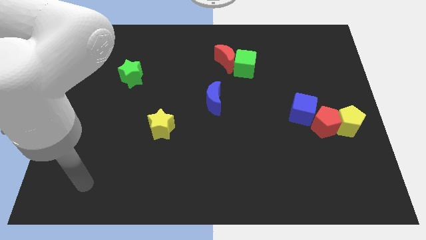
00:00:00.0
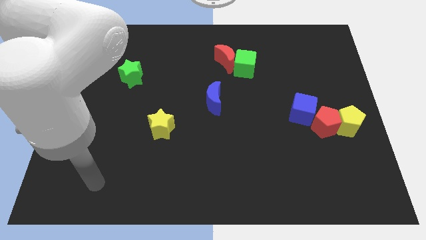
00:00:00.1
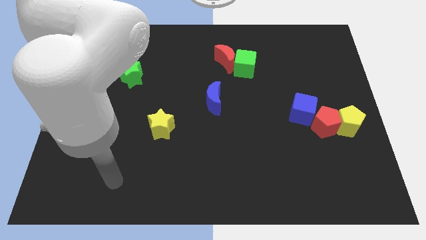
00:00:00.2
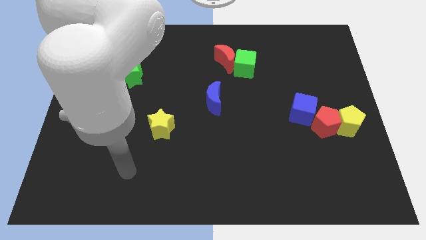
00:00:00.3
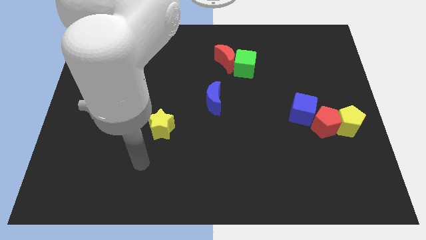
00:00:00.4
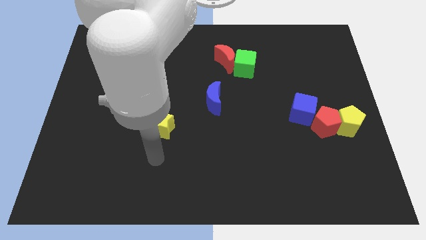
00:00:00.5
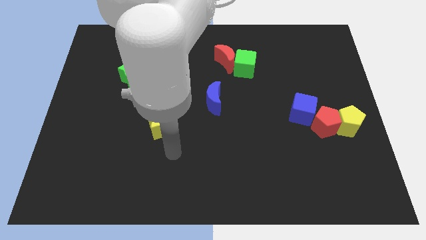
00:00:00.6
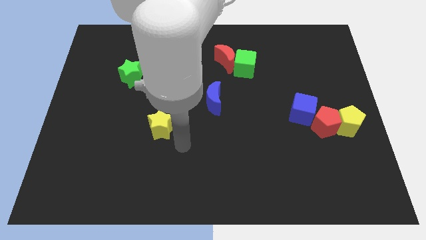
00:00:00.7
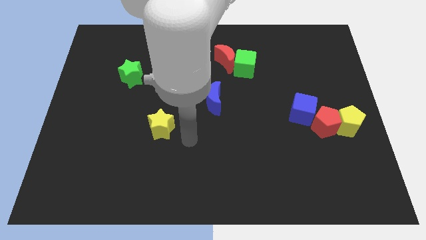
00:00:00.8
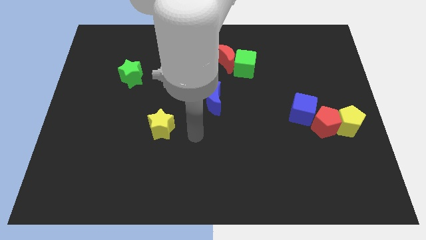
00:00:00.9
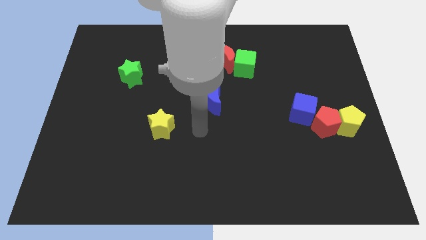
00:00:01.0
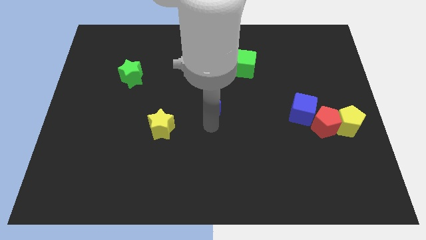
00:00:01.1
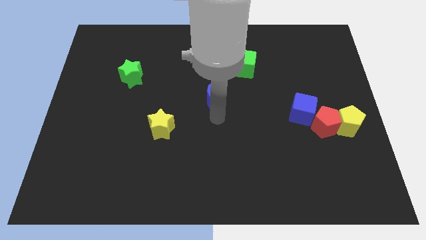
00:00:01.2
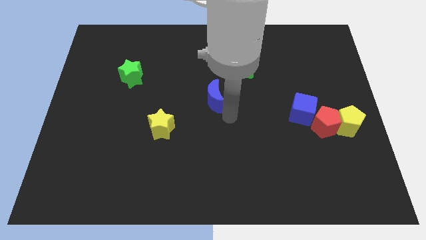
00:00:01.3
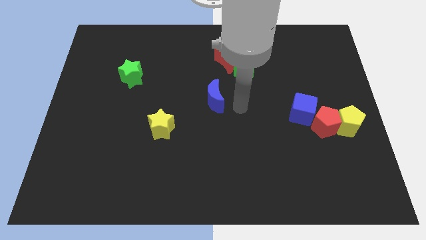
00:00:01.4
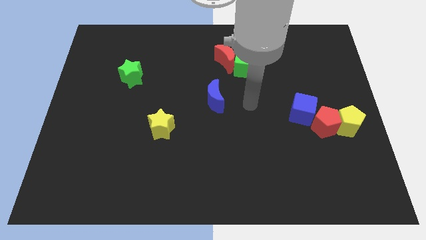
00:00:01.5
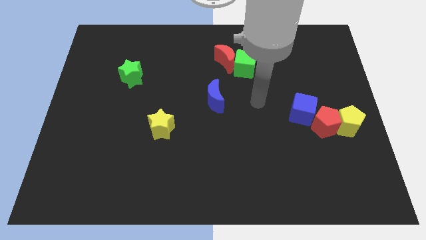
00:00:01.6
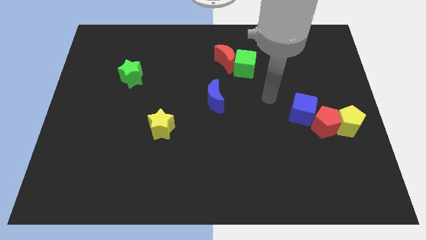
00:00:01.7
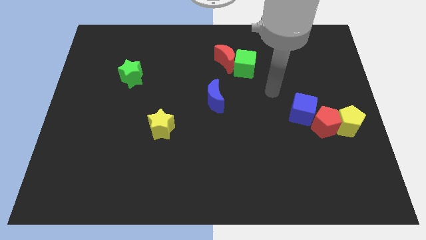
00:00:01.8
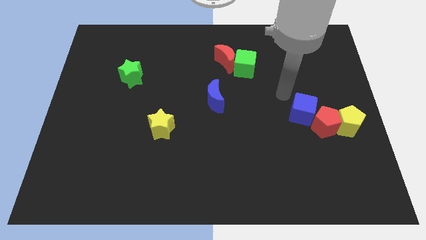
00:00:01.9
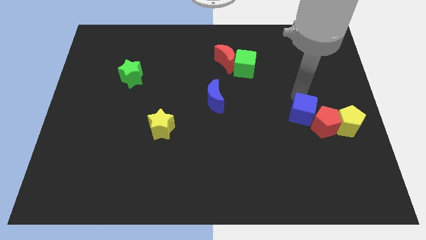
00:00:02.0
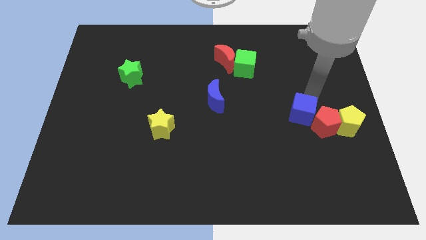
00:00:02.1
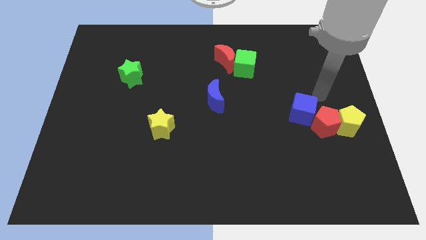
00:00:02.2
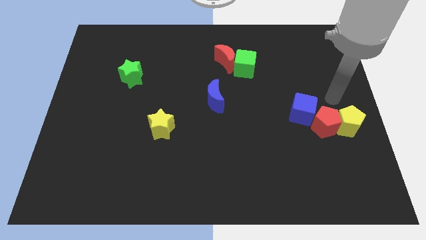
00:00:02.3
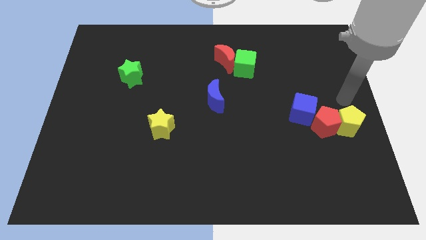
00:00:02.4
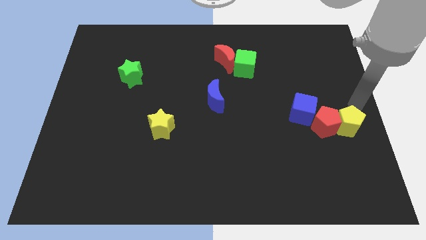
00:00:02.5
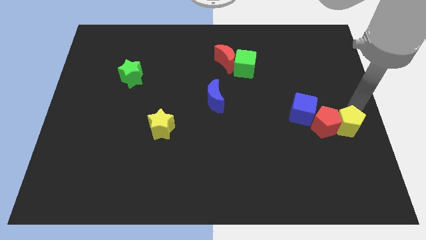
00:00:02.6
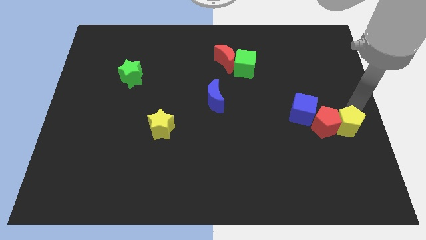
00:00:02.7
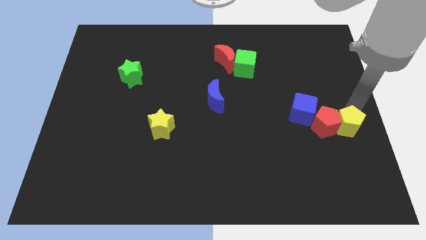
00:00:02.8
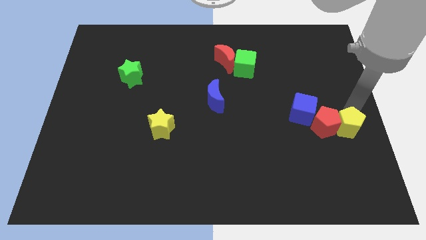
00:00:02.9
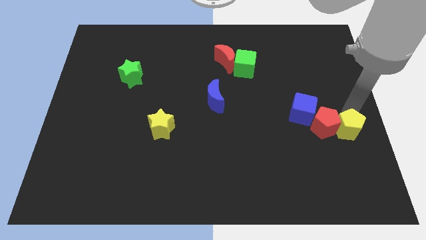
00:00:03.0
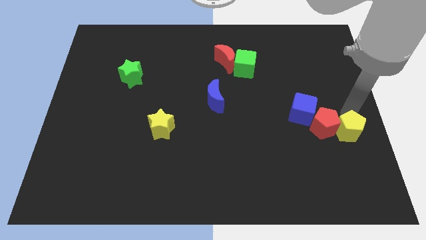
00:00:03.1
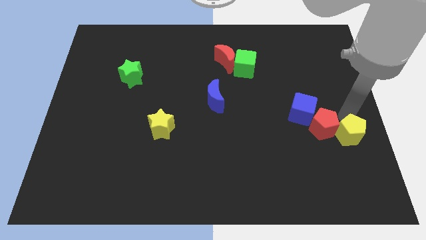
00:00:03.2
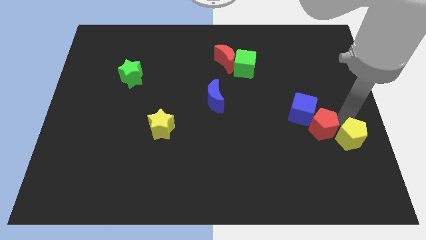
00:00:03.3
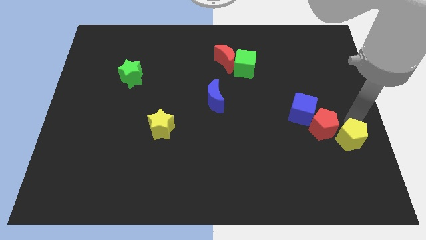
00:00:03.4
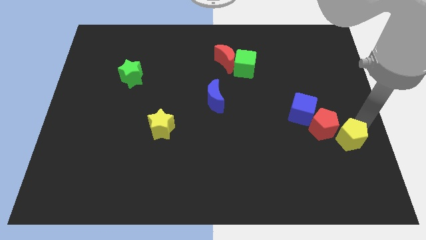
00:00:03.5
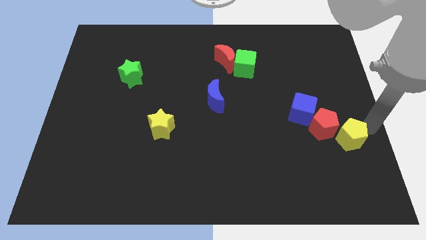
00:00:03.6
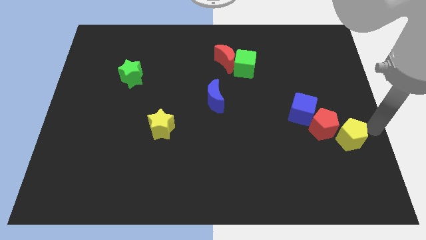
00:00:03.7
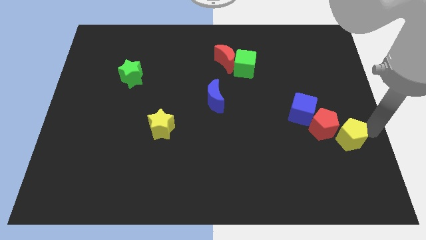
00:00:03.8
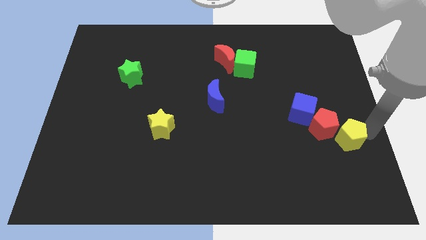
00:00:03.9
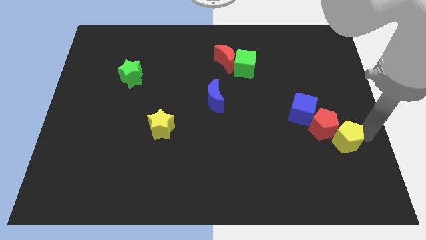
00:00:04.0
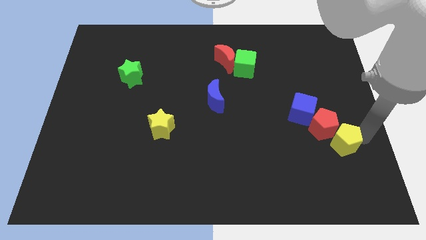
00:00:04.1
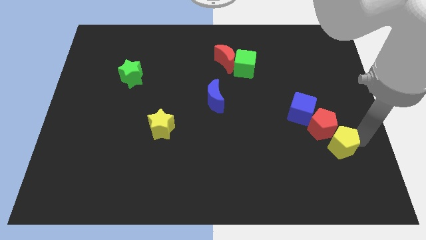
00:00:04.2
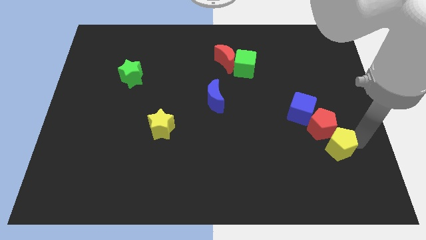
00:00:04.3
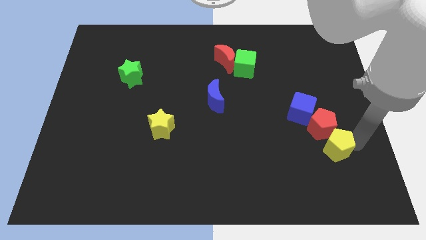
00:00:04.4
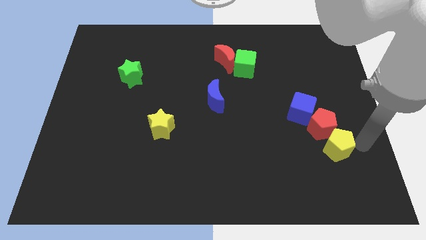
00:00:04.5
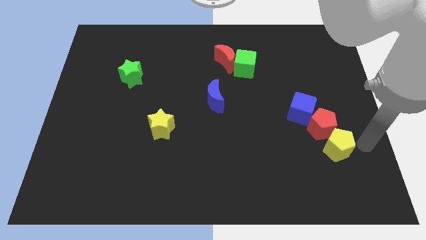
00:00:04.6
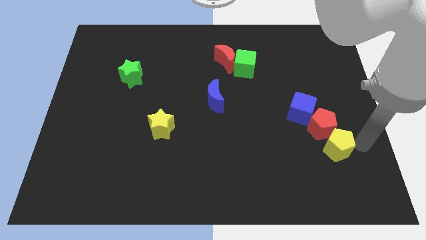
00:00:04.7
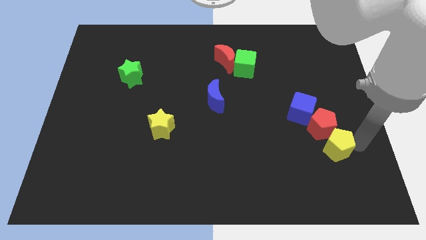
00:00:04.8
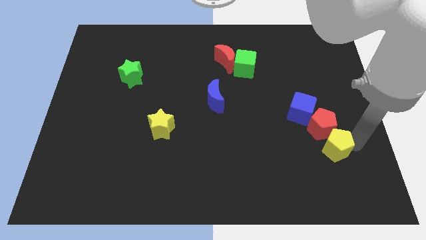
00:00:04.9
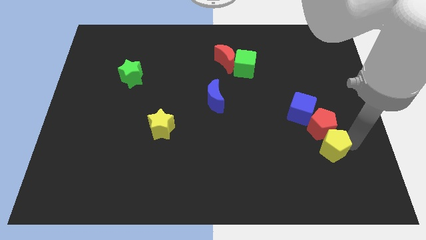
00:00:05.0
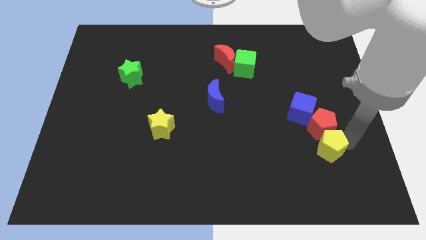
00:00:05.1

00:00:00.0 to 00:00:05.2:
put the yellow pentagon to the bottom side of the blue cube

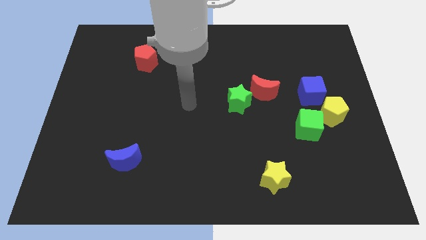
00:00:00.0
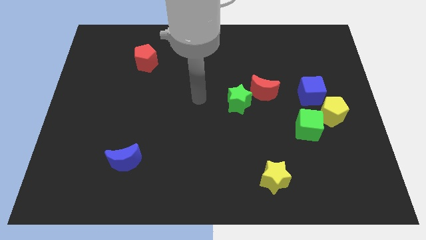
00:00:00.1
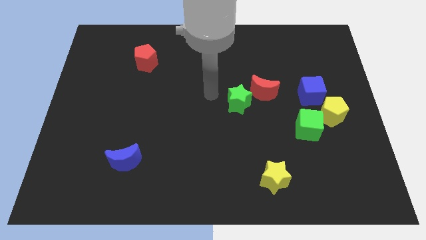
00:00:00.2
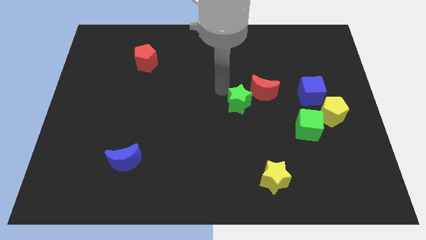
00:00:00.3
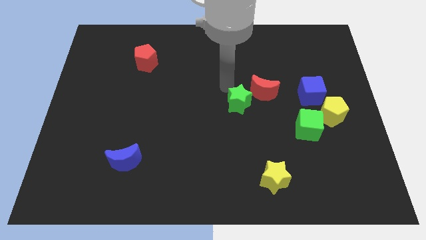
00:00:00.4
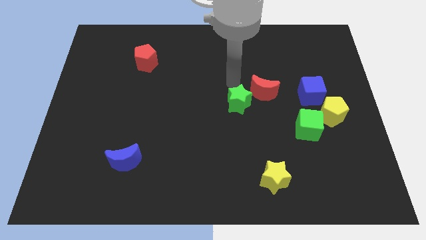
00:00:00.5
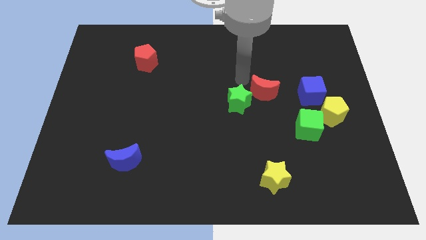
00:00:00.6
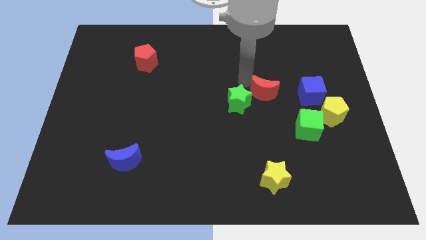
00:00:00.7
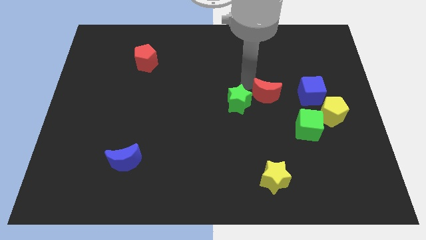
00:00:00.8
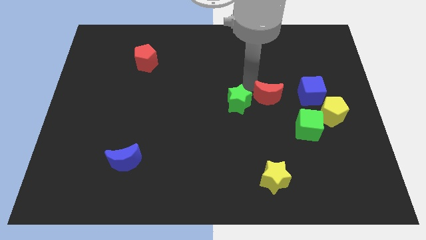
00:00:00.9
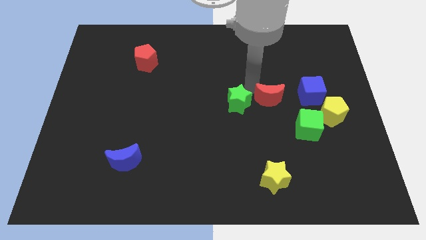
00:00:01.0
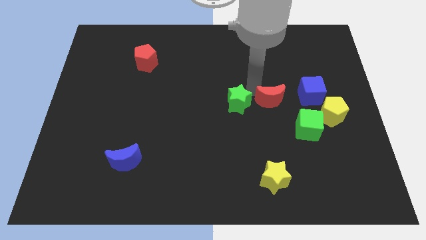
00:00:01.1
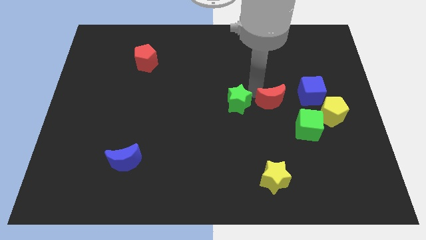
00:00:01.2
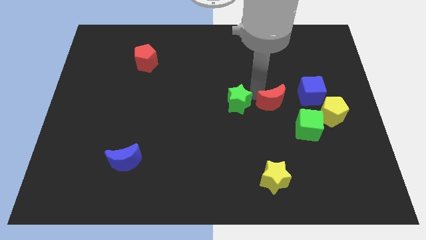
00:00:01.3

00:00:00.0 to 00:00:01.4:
move the red moon diagonally down and to the left of the blue cube
